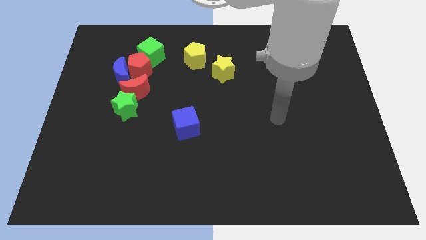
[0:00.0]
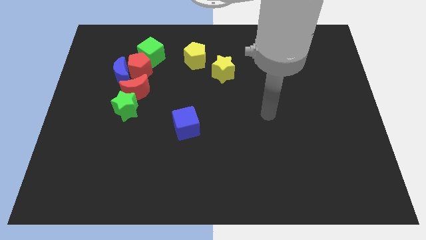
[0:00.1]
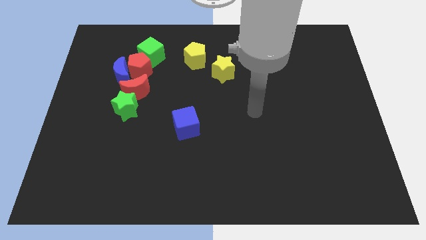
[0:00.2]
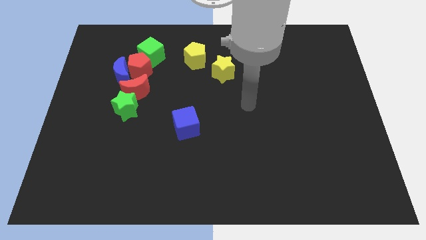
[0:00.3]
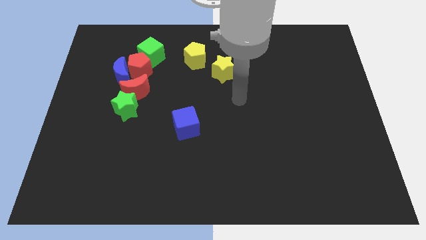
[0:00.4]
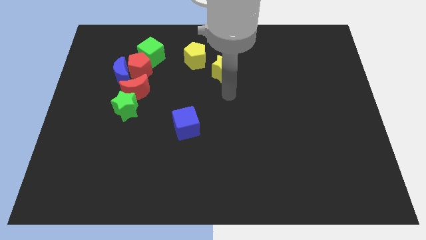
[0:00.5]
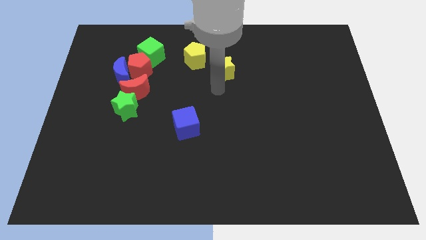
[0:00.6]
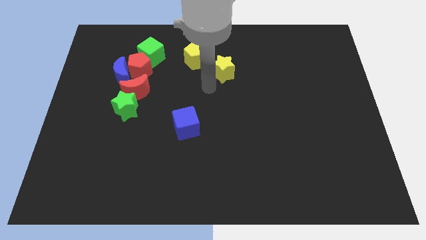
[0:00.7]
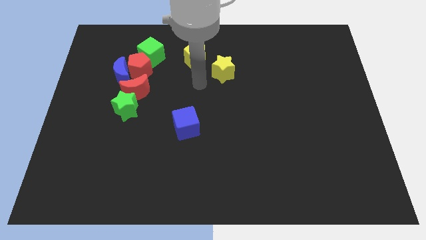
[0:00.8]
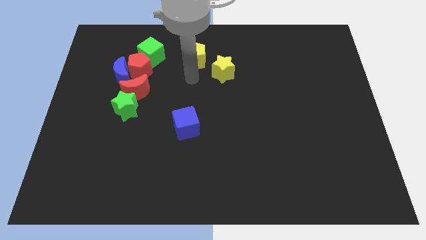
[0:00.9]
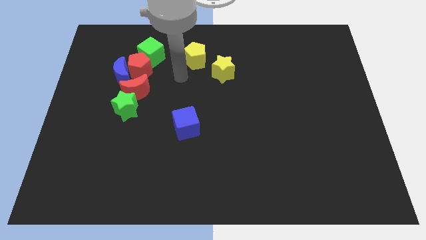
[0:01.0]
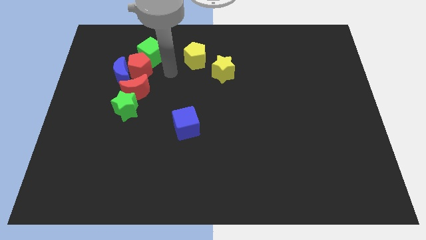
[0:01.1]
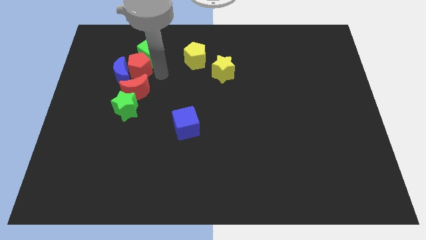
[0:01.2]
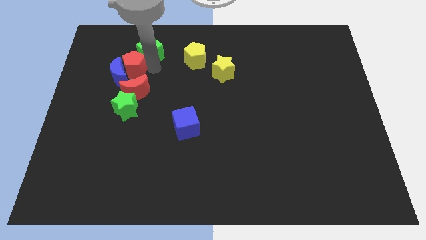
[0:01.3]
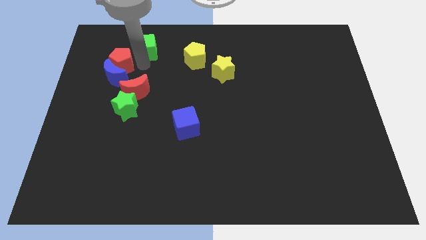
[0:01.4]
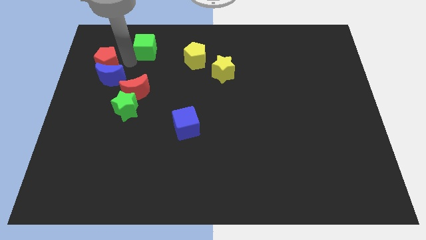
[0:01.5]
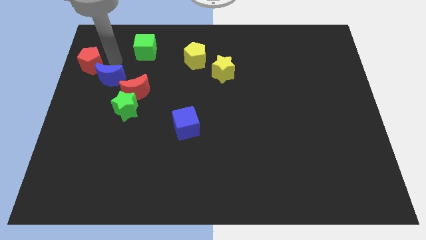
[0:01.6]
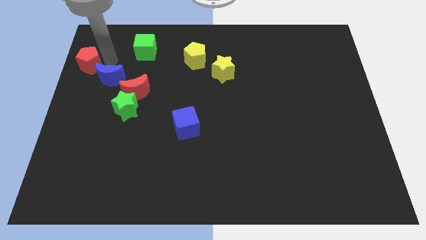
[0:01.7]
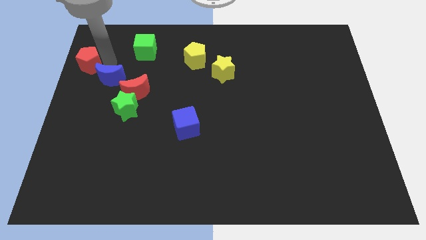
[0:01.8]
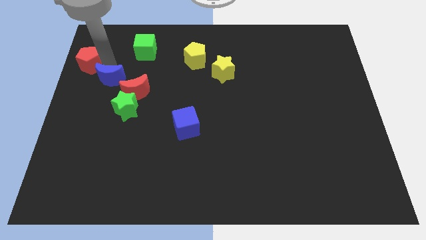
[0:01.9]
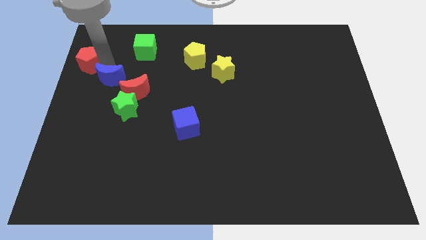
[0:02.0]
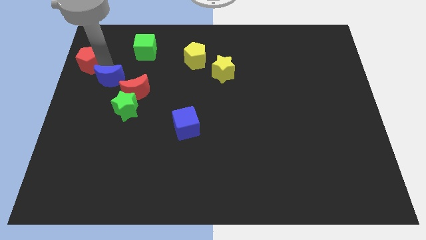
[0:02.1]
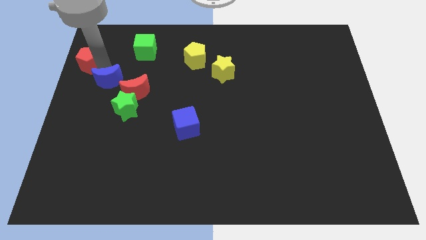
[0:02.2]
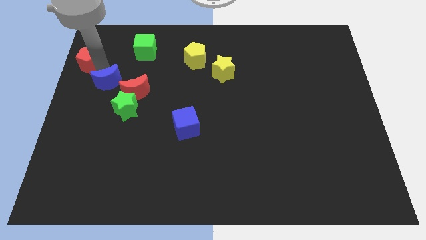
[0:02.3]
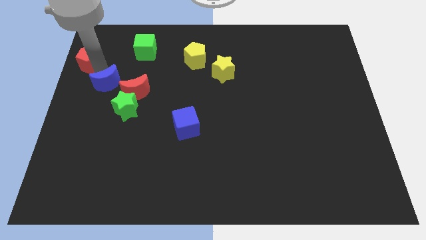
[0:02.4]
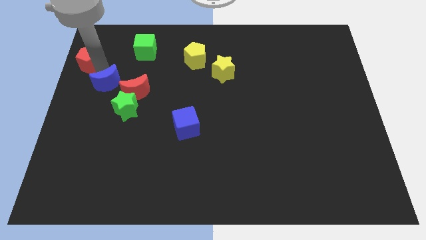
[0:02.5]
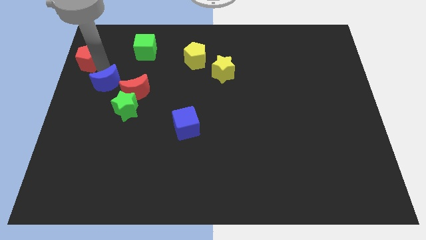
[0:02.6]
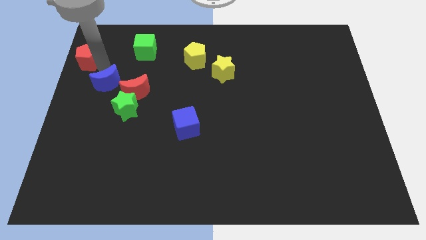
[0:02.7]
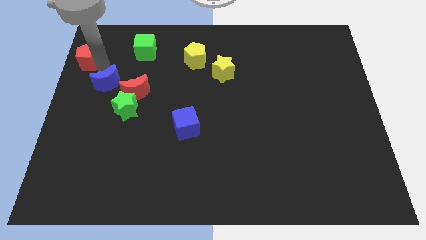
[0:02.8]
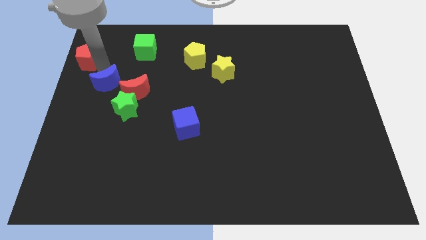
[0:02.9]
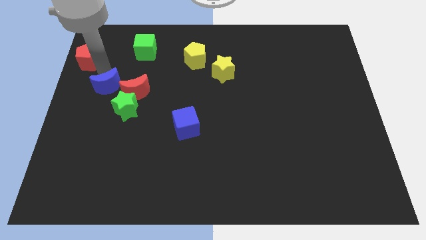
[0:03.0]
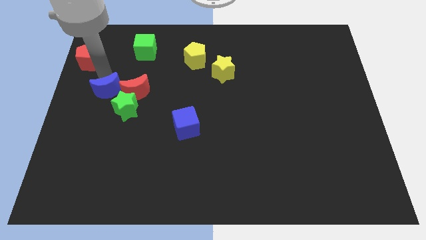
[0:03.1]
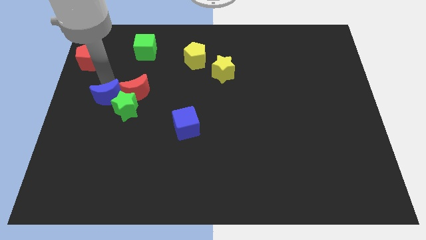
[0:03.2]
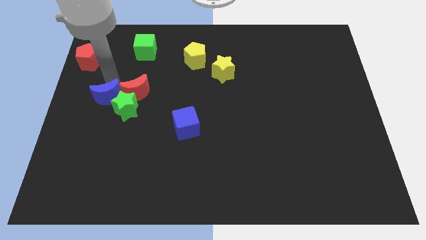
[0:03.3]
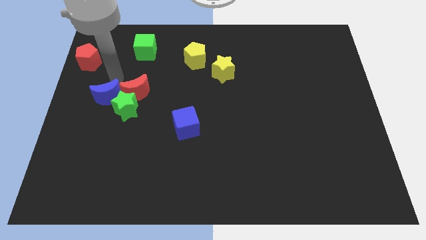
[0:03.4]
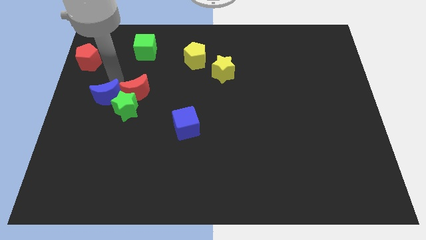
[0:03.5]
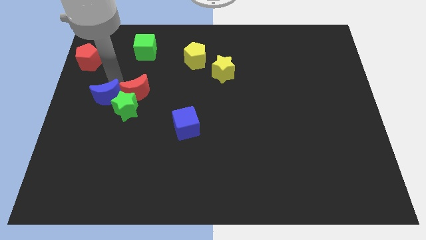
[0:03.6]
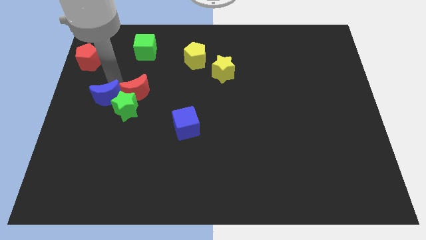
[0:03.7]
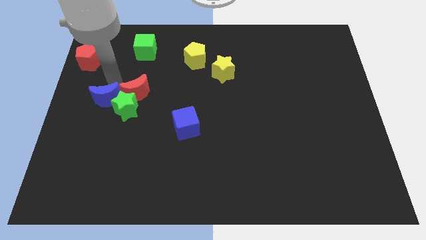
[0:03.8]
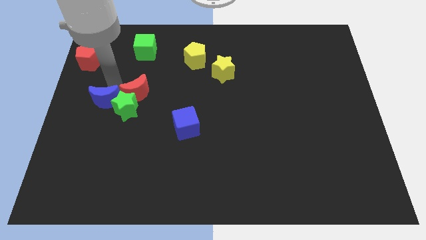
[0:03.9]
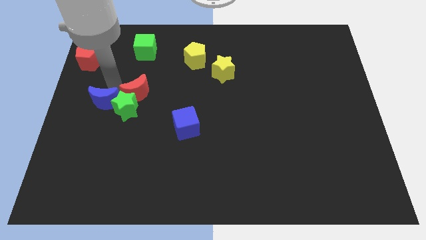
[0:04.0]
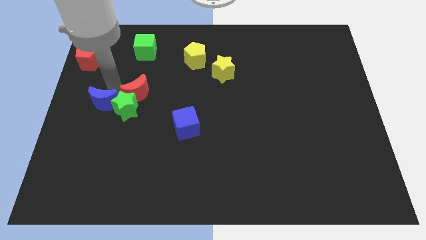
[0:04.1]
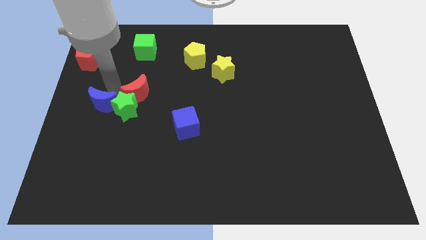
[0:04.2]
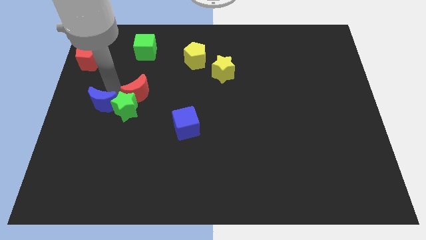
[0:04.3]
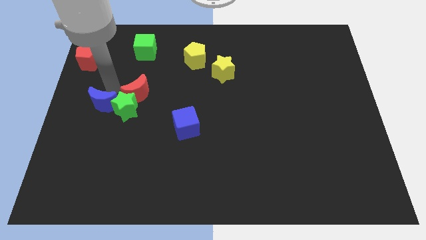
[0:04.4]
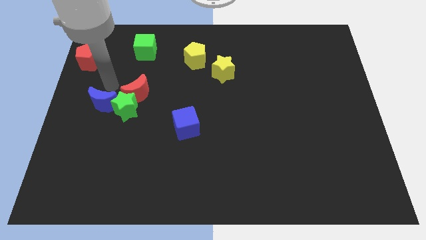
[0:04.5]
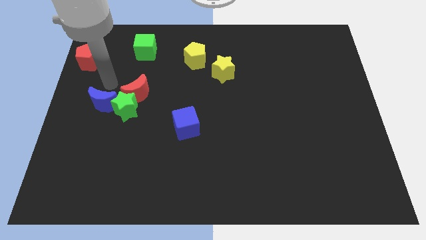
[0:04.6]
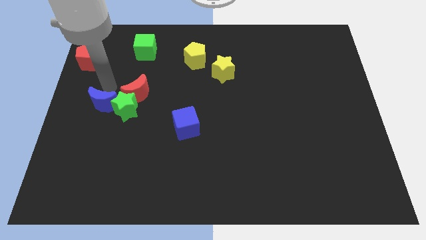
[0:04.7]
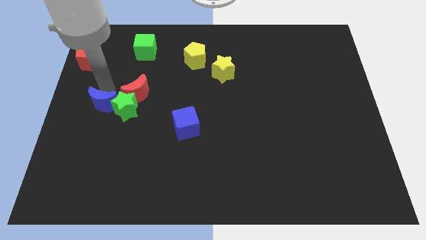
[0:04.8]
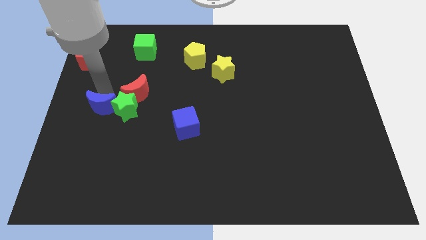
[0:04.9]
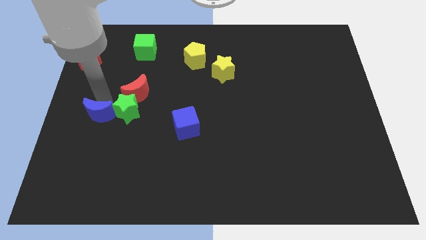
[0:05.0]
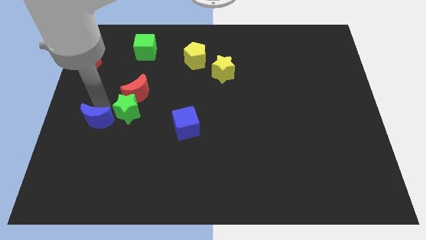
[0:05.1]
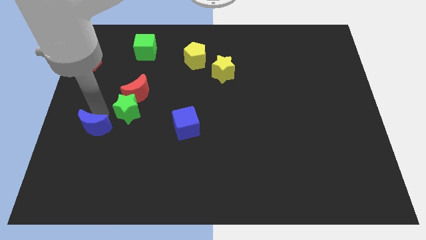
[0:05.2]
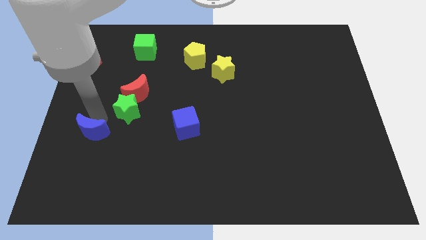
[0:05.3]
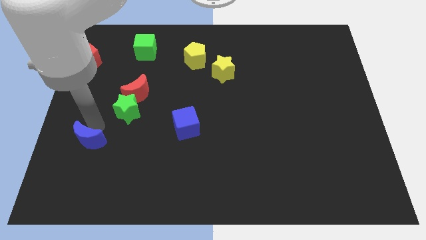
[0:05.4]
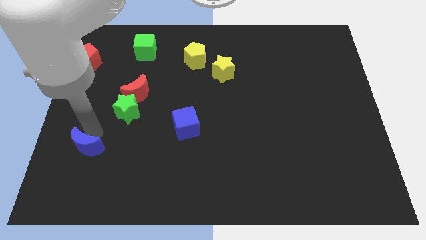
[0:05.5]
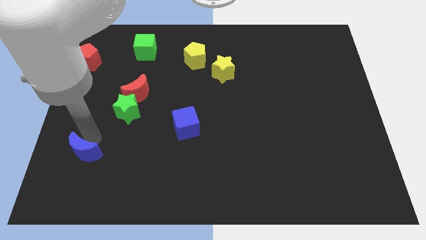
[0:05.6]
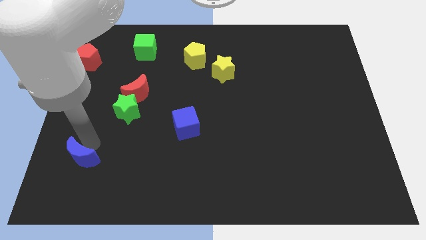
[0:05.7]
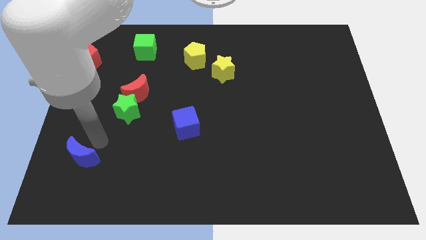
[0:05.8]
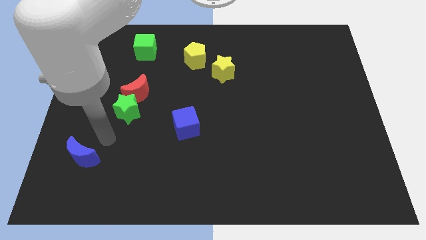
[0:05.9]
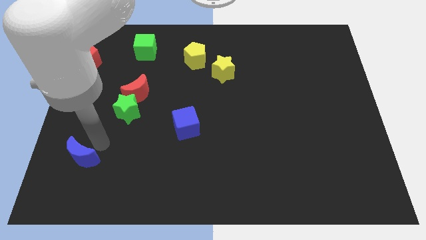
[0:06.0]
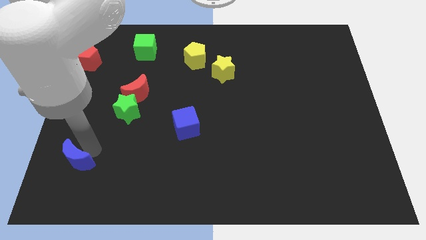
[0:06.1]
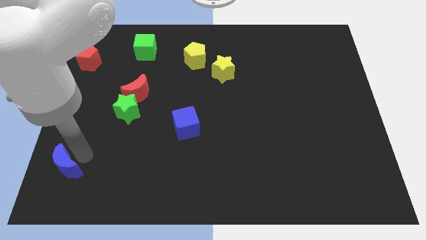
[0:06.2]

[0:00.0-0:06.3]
move the blue moon to the bottom left corner

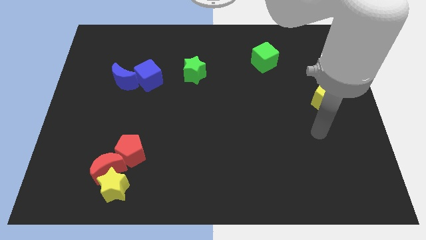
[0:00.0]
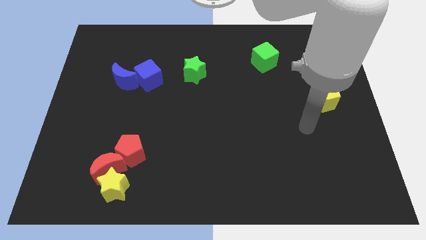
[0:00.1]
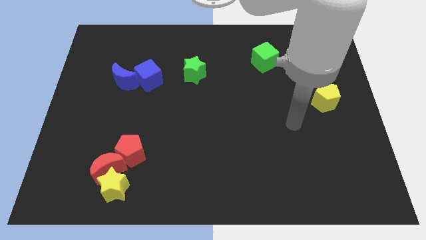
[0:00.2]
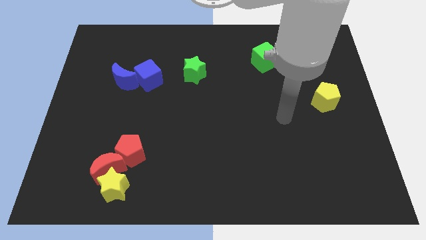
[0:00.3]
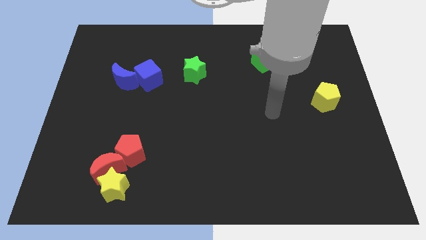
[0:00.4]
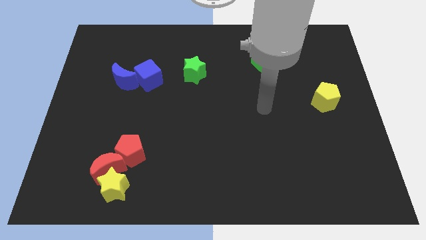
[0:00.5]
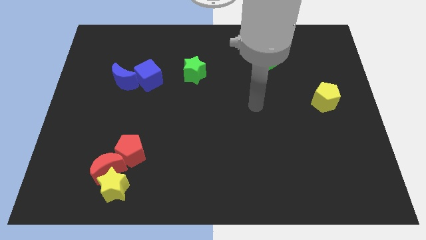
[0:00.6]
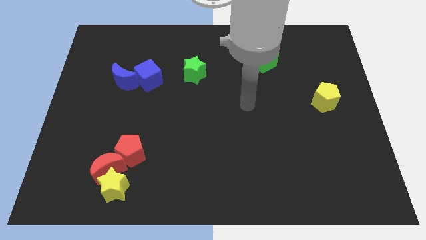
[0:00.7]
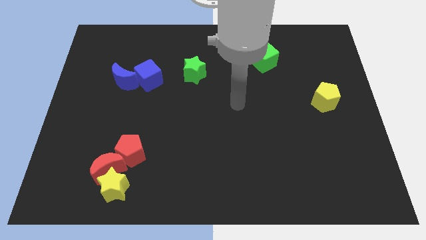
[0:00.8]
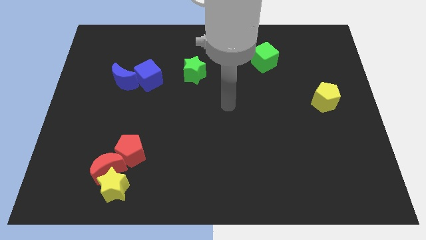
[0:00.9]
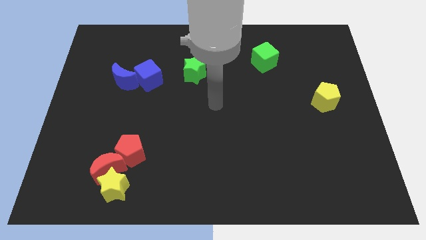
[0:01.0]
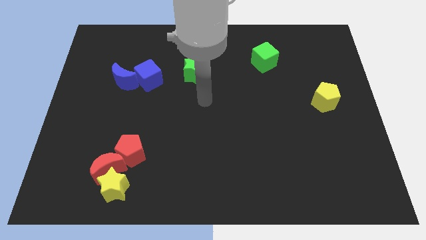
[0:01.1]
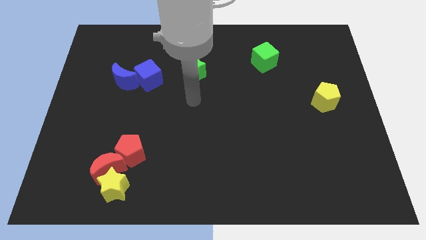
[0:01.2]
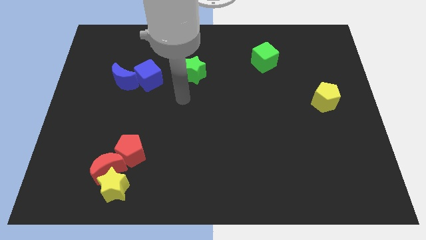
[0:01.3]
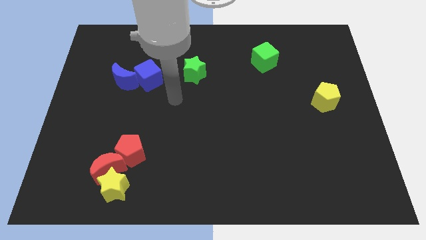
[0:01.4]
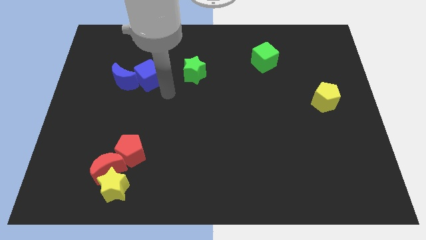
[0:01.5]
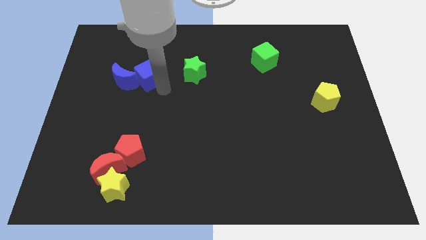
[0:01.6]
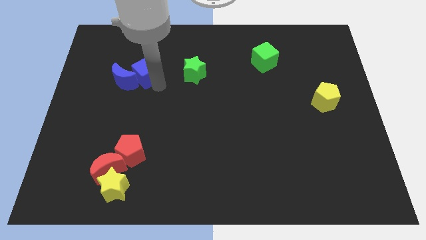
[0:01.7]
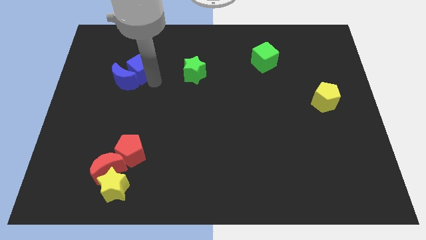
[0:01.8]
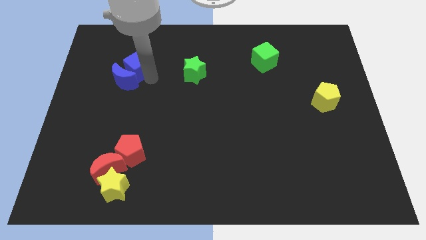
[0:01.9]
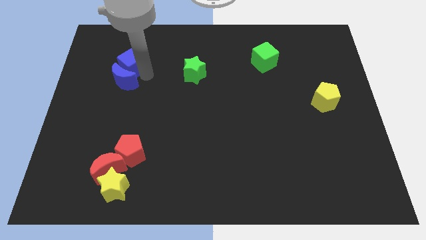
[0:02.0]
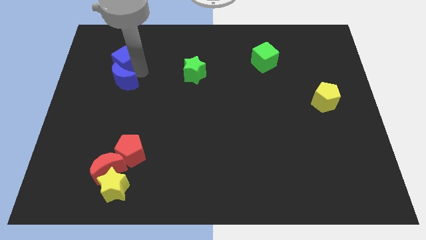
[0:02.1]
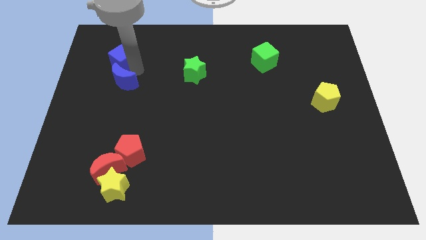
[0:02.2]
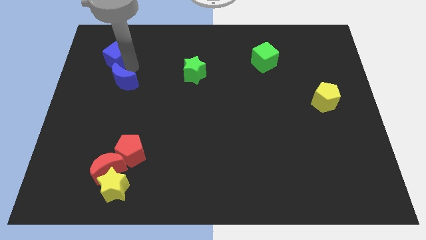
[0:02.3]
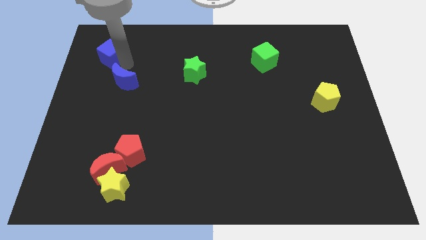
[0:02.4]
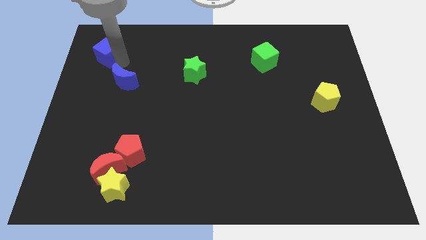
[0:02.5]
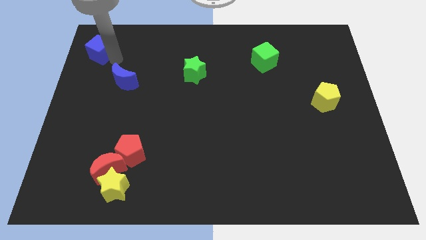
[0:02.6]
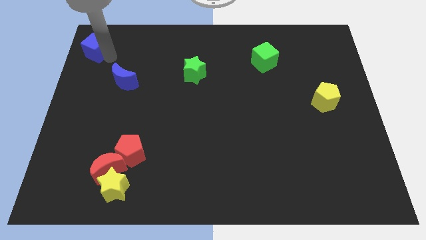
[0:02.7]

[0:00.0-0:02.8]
move the blue cube to the top left corner
